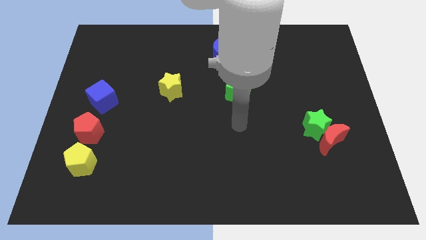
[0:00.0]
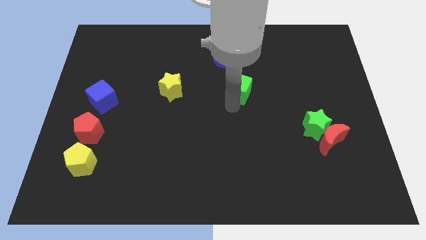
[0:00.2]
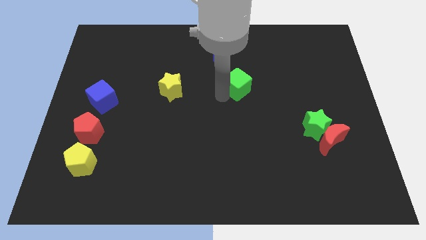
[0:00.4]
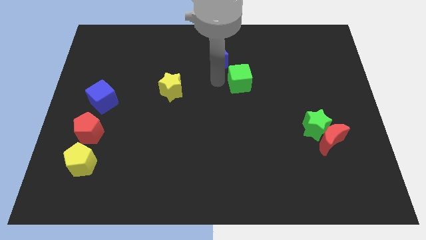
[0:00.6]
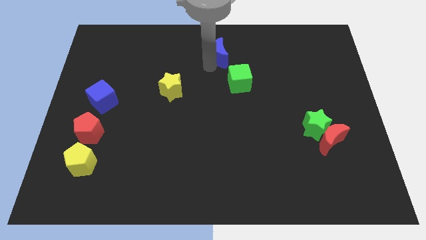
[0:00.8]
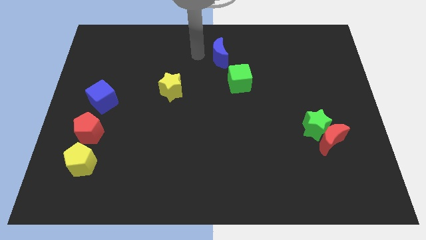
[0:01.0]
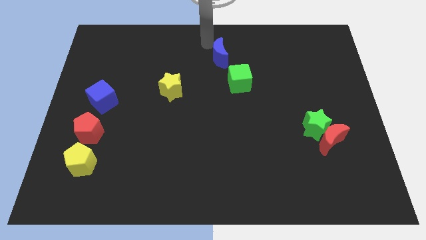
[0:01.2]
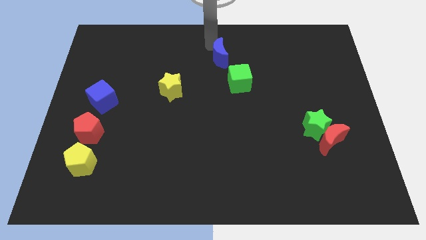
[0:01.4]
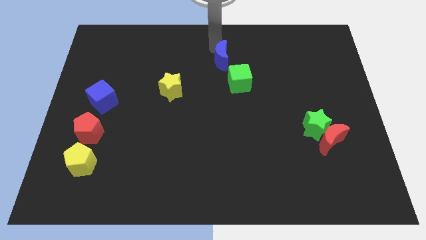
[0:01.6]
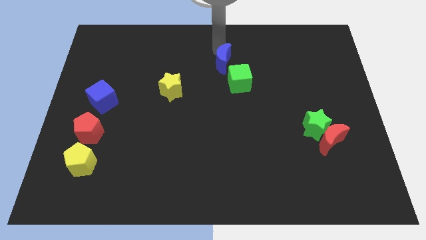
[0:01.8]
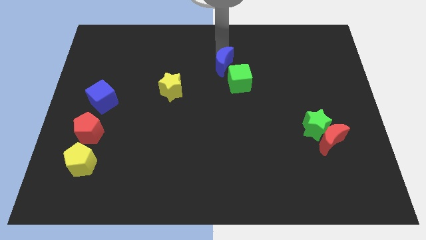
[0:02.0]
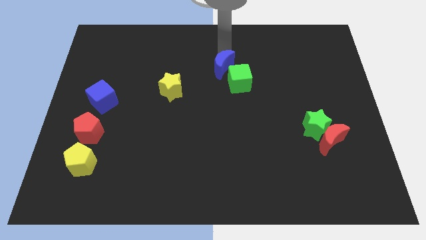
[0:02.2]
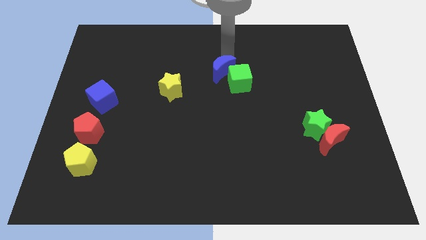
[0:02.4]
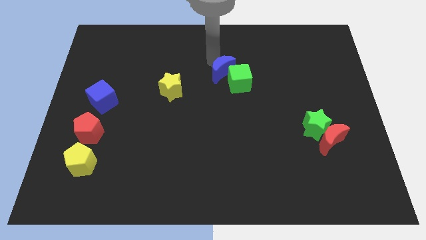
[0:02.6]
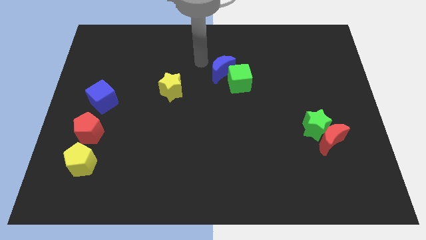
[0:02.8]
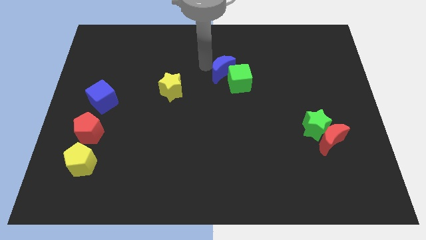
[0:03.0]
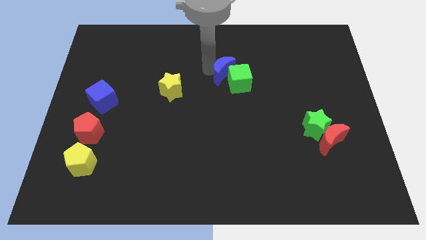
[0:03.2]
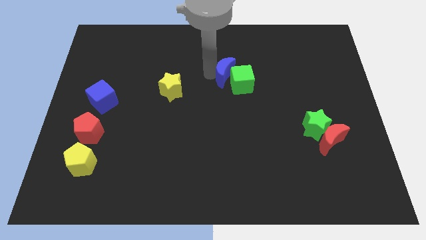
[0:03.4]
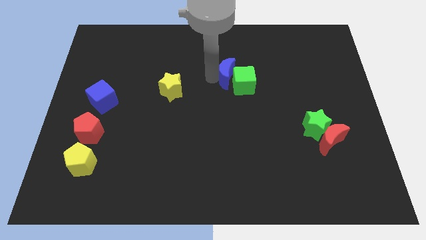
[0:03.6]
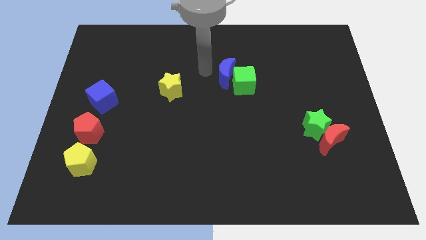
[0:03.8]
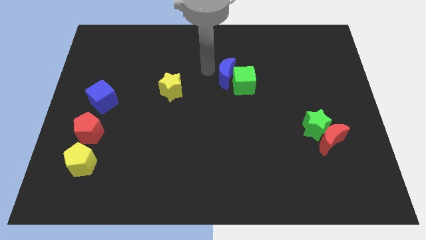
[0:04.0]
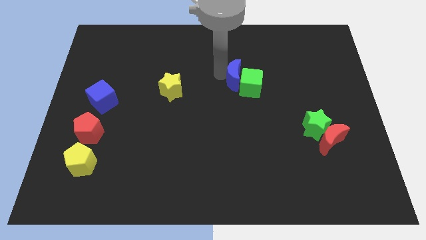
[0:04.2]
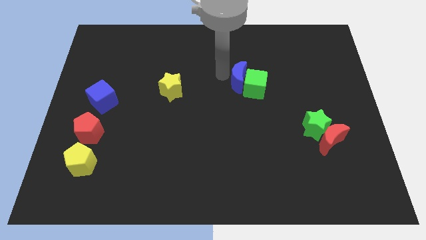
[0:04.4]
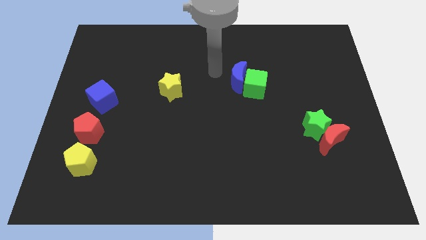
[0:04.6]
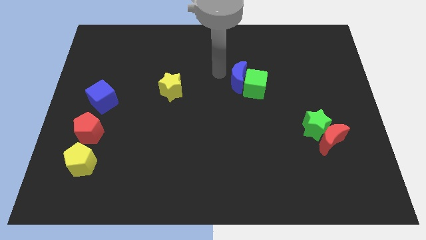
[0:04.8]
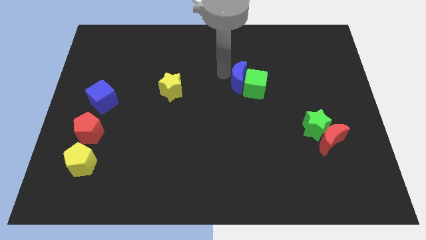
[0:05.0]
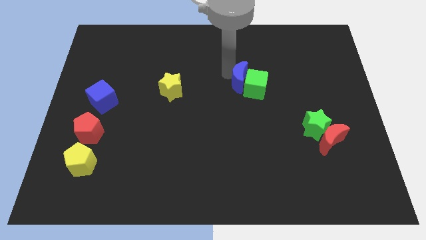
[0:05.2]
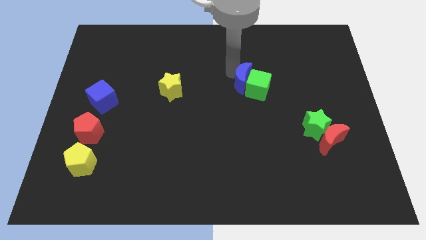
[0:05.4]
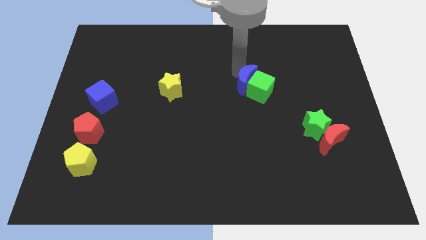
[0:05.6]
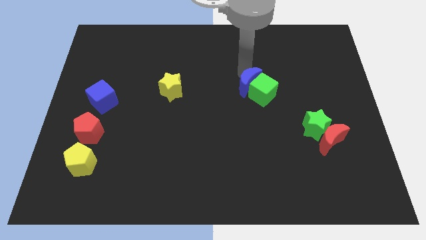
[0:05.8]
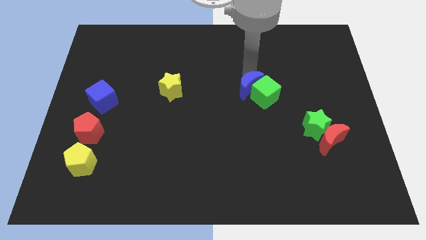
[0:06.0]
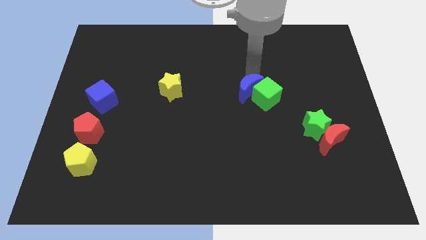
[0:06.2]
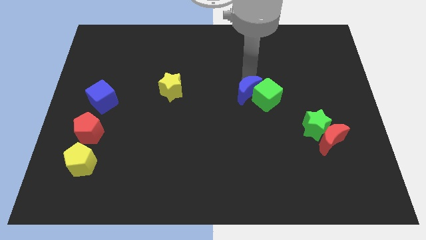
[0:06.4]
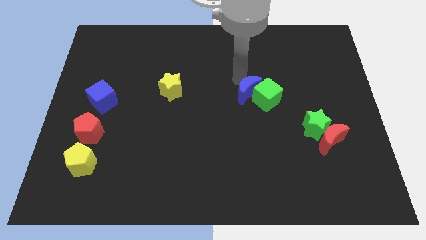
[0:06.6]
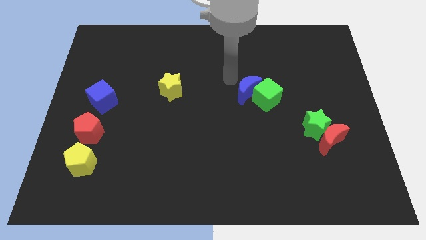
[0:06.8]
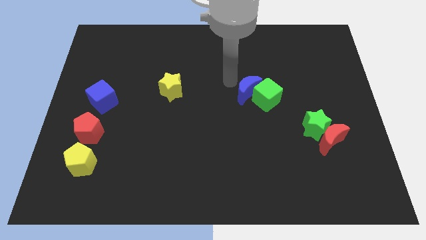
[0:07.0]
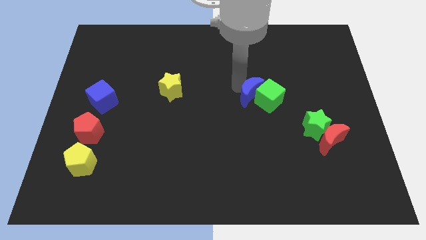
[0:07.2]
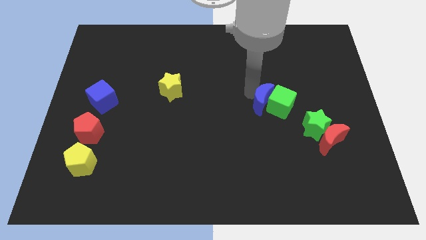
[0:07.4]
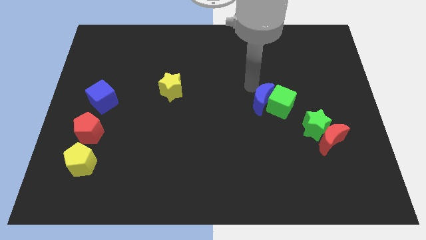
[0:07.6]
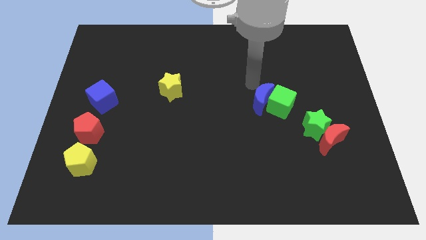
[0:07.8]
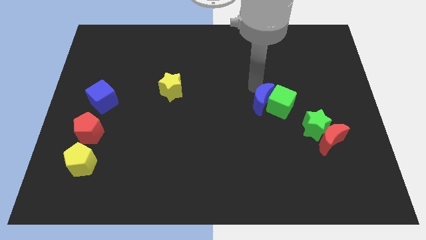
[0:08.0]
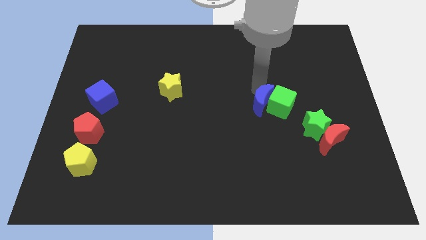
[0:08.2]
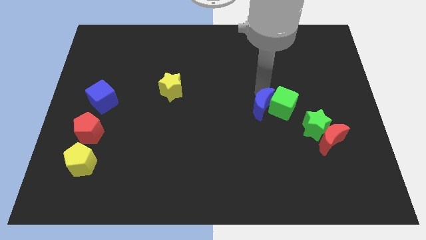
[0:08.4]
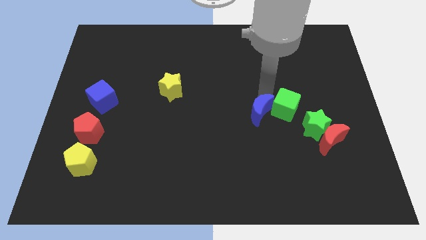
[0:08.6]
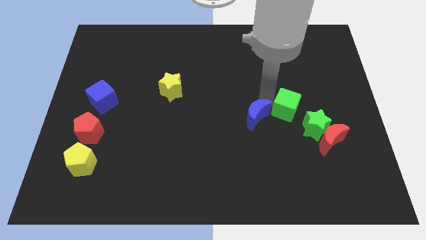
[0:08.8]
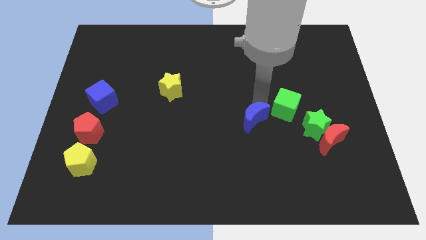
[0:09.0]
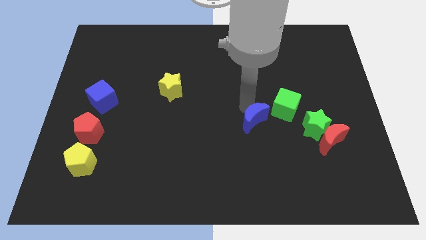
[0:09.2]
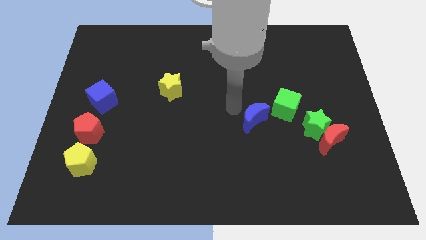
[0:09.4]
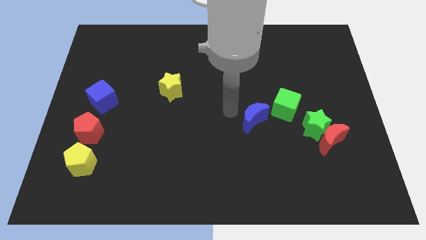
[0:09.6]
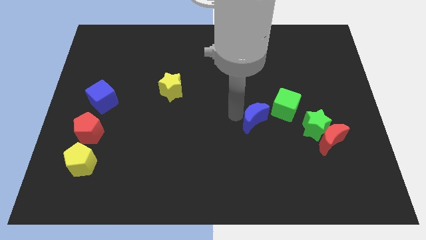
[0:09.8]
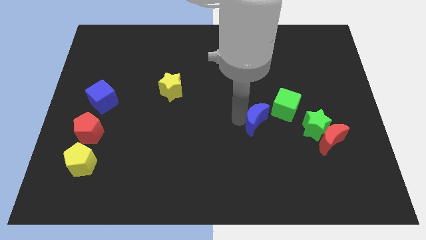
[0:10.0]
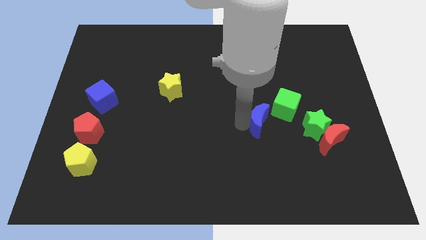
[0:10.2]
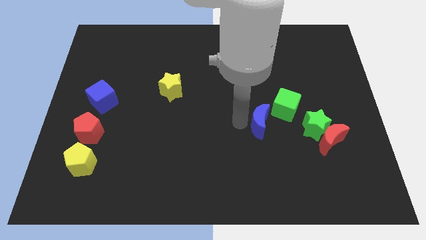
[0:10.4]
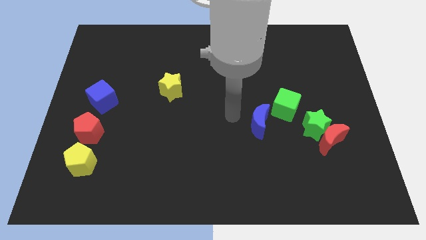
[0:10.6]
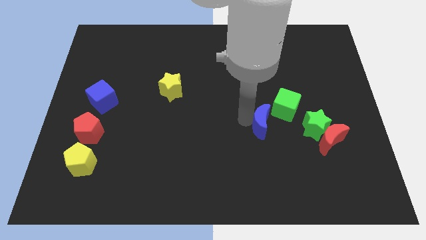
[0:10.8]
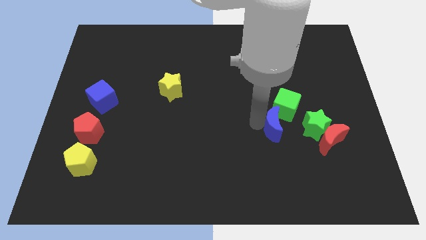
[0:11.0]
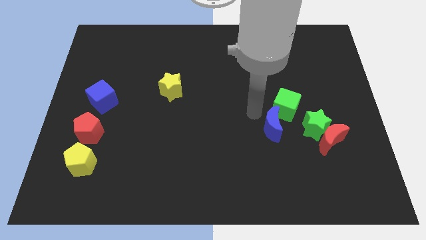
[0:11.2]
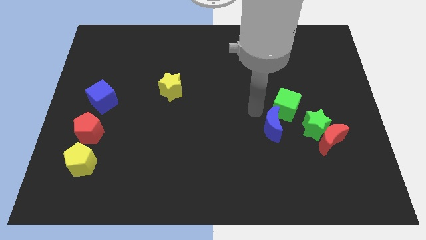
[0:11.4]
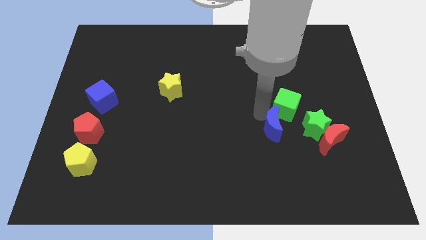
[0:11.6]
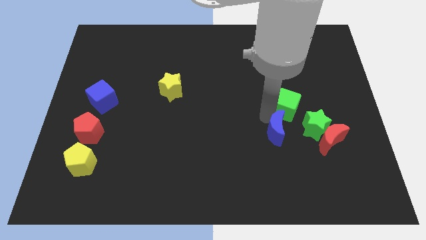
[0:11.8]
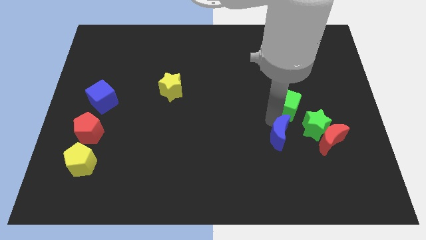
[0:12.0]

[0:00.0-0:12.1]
push the blue moon diagonally down and to the left of the green star

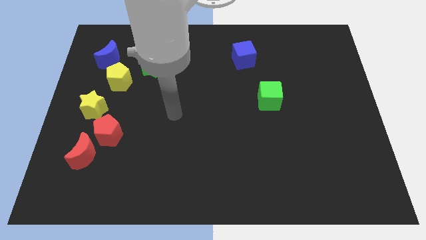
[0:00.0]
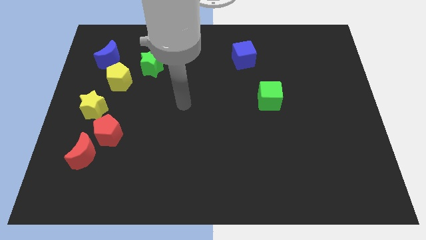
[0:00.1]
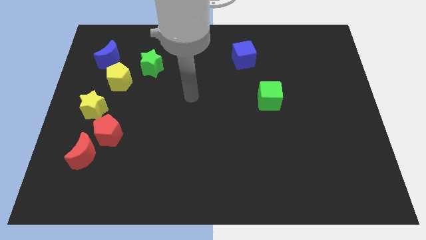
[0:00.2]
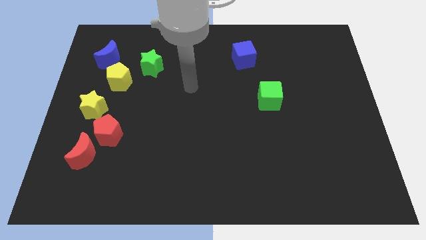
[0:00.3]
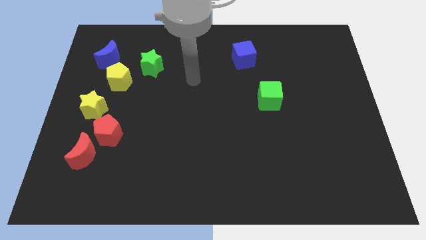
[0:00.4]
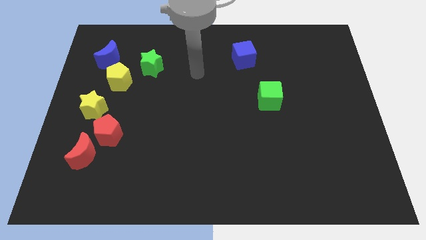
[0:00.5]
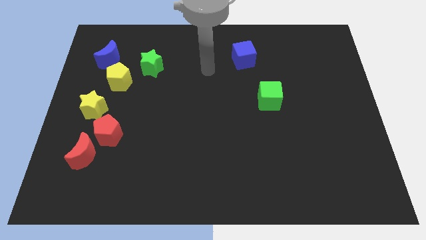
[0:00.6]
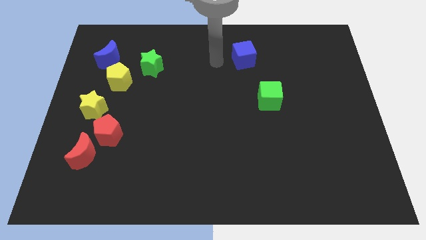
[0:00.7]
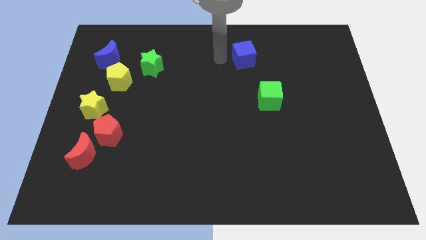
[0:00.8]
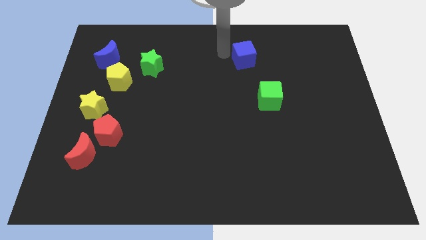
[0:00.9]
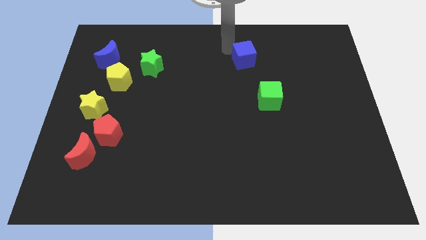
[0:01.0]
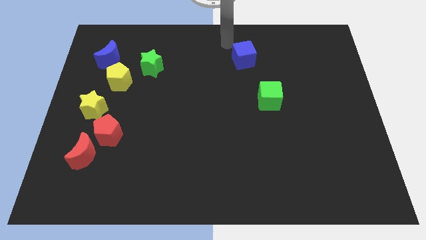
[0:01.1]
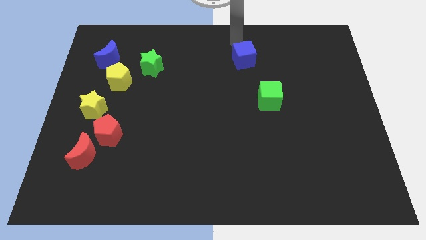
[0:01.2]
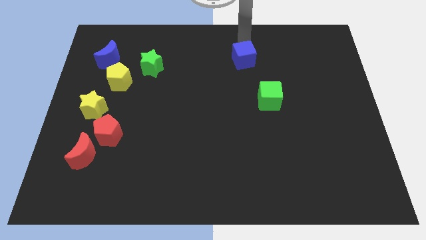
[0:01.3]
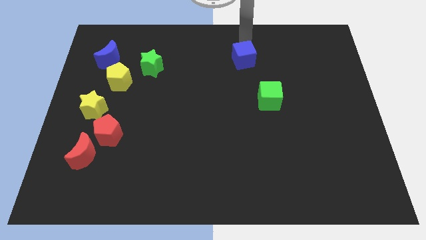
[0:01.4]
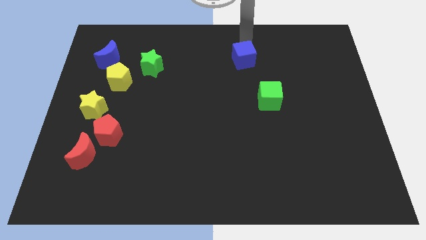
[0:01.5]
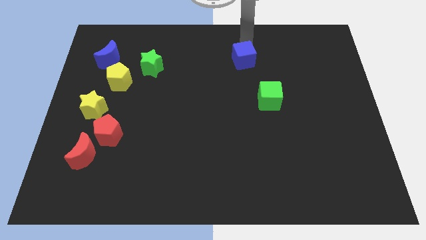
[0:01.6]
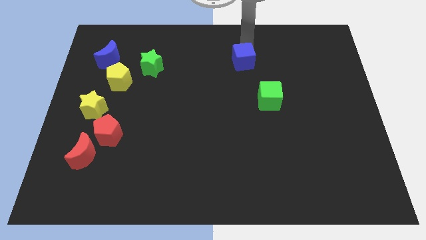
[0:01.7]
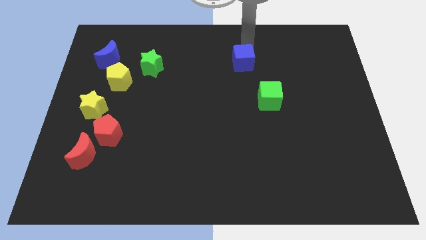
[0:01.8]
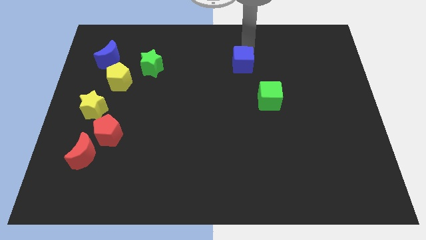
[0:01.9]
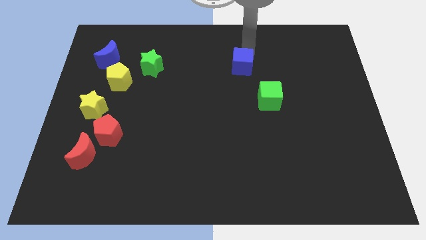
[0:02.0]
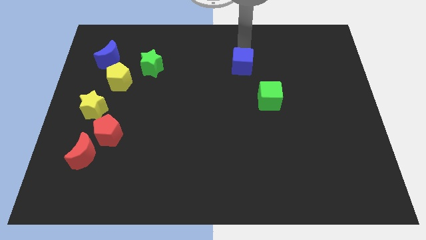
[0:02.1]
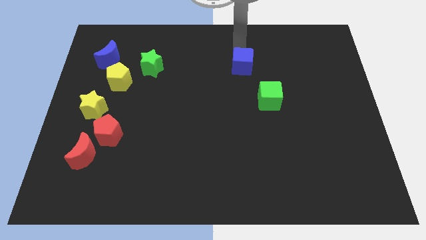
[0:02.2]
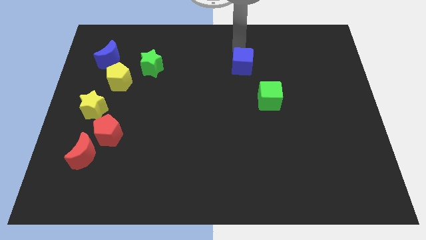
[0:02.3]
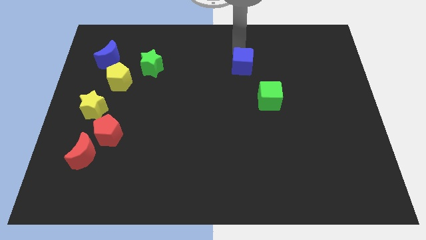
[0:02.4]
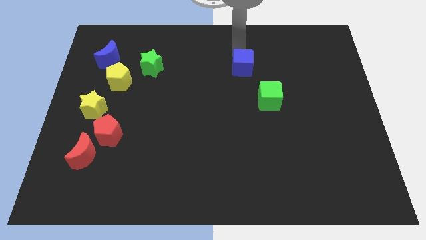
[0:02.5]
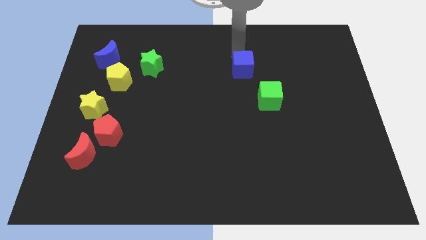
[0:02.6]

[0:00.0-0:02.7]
move the blue cube to the top left of the green cube
